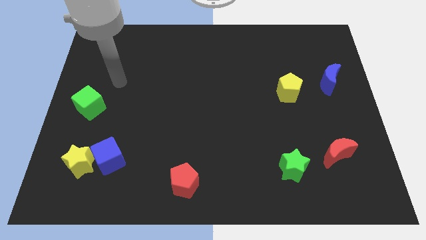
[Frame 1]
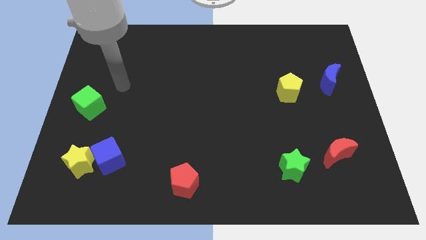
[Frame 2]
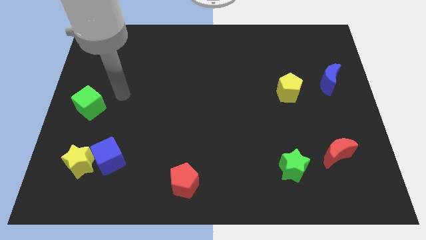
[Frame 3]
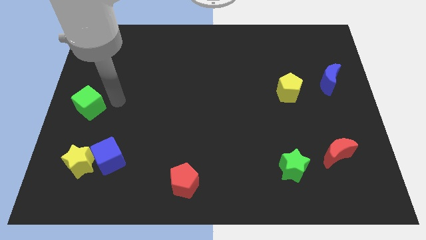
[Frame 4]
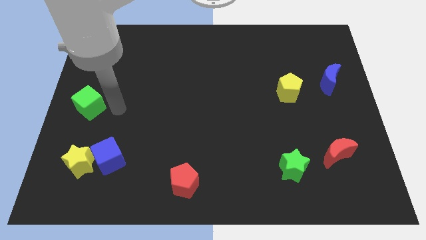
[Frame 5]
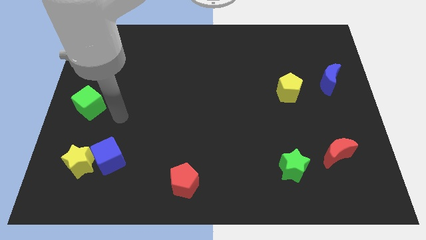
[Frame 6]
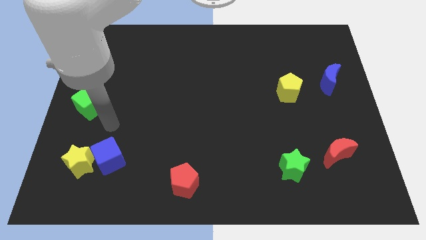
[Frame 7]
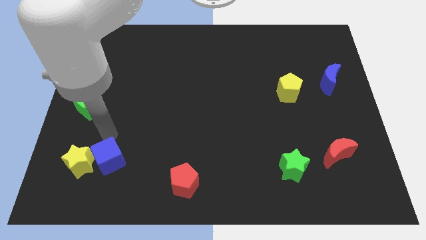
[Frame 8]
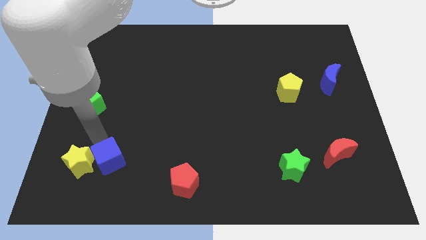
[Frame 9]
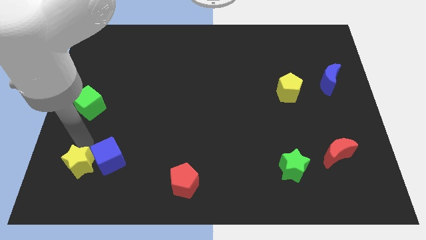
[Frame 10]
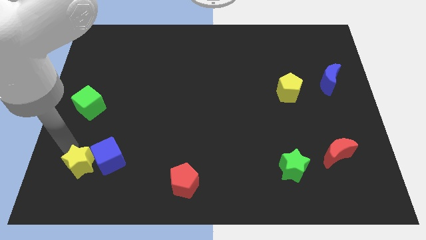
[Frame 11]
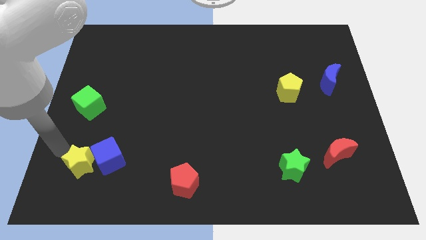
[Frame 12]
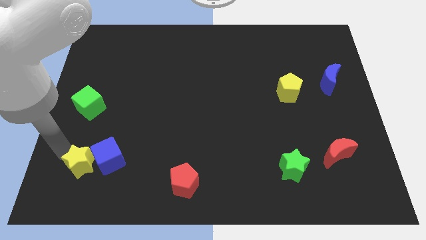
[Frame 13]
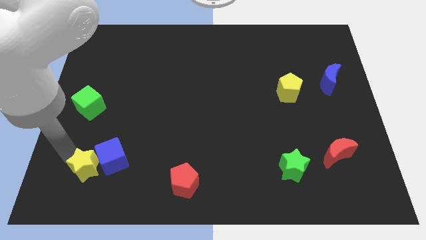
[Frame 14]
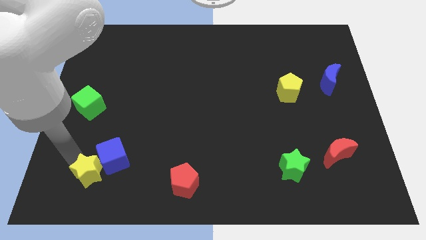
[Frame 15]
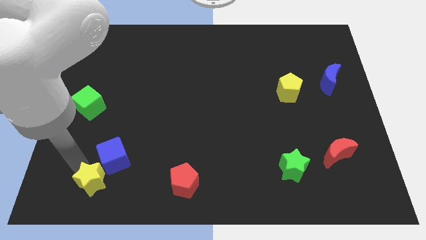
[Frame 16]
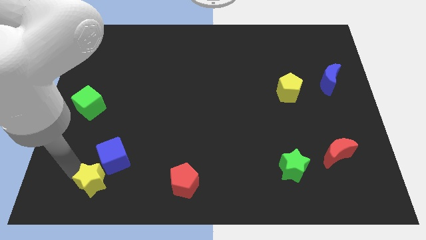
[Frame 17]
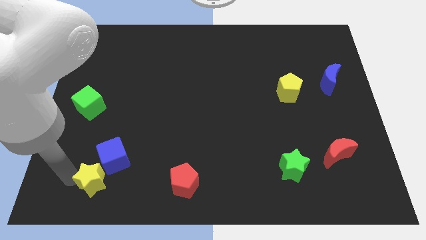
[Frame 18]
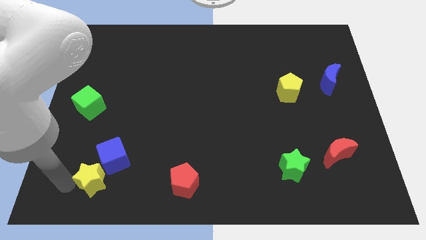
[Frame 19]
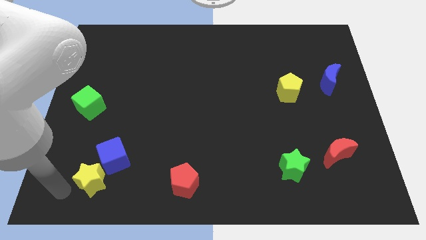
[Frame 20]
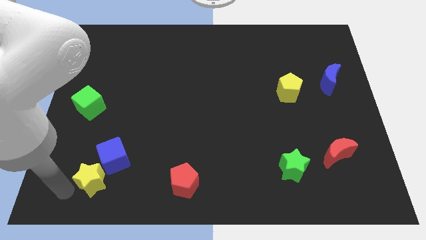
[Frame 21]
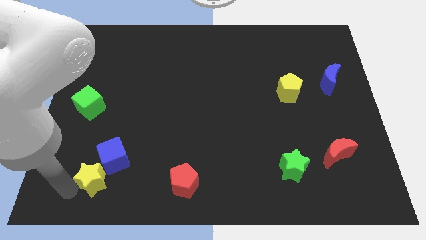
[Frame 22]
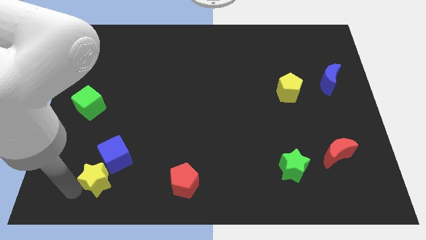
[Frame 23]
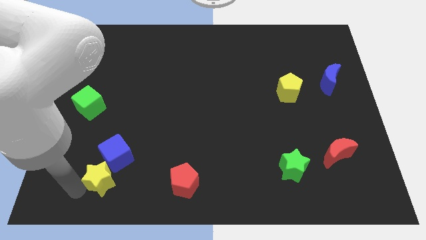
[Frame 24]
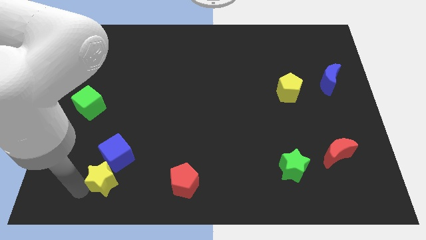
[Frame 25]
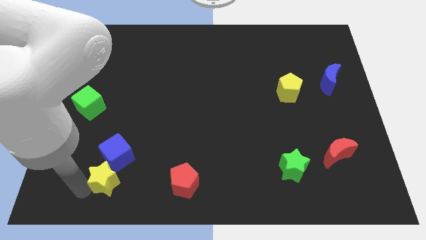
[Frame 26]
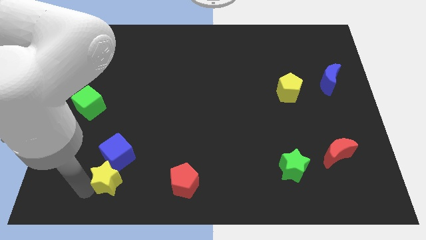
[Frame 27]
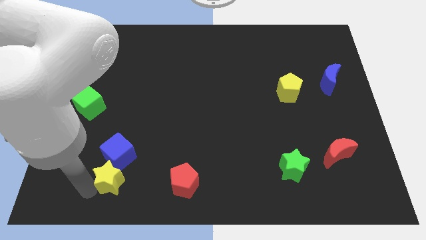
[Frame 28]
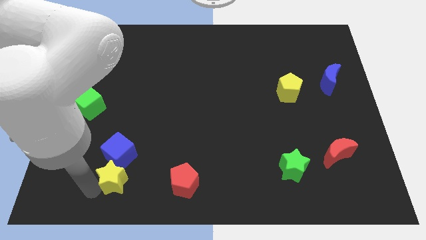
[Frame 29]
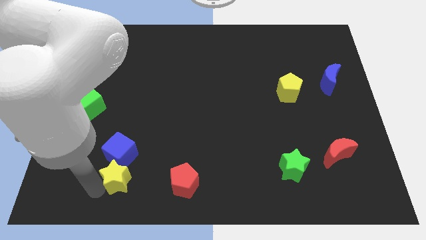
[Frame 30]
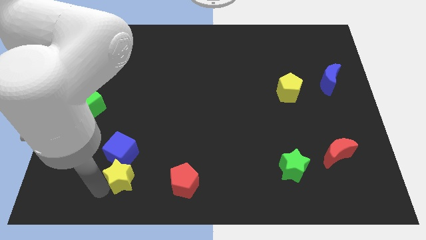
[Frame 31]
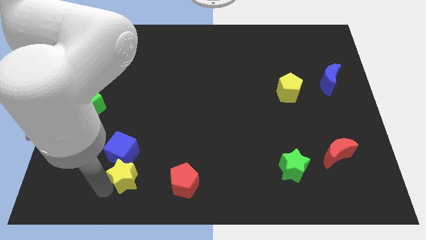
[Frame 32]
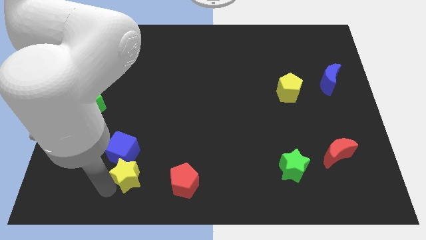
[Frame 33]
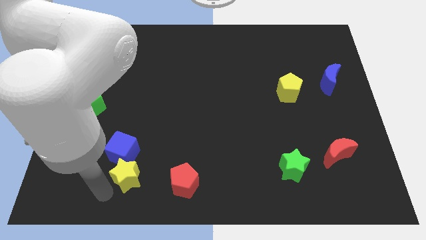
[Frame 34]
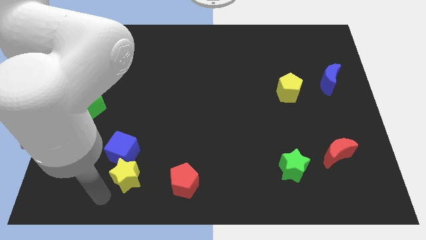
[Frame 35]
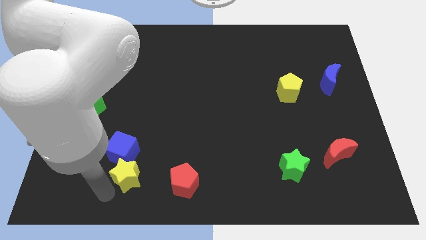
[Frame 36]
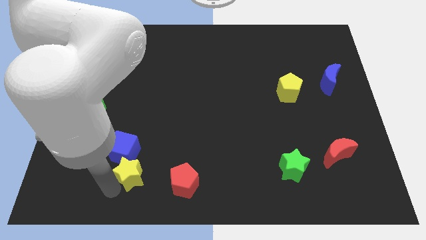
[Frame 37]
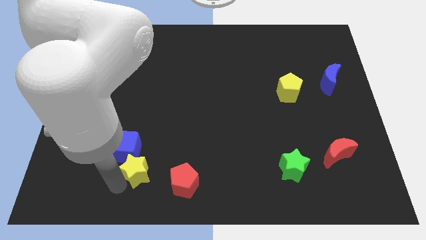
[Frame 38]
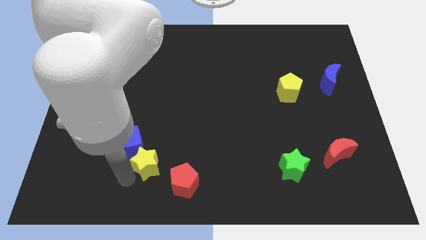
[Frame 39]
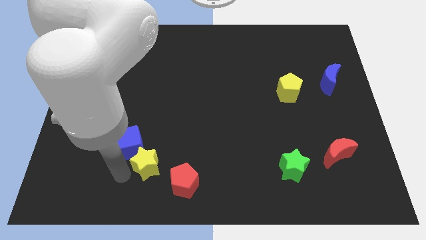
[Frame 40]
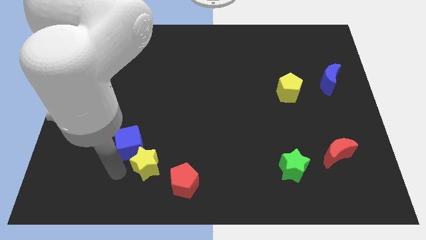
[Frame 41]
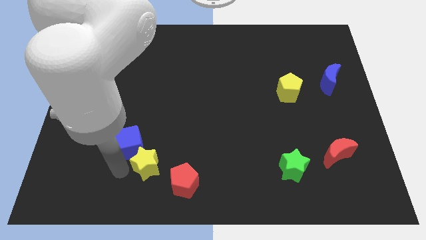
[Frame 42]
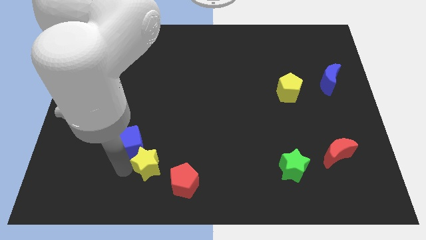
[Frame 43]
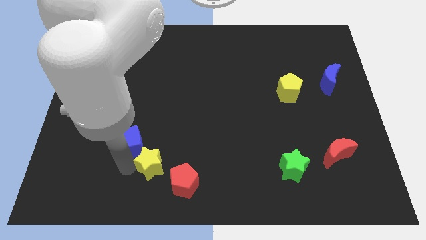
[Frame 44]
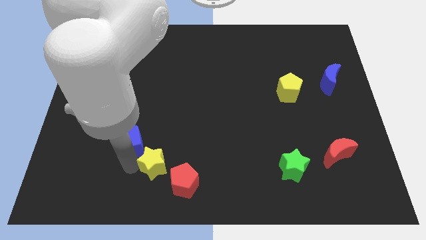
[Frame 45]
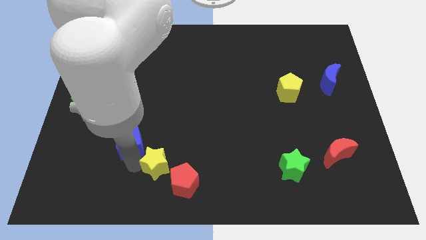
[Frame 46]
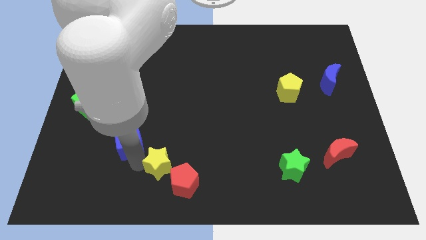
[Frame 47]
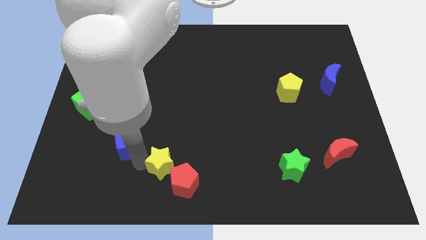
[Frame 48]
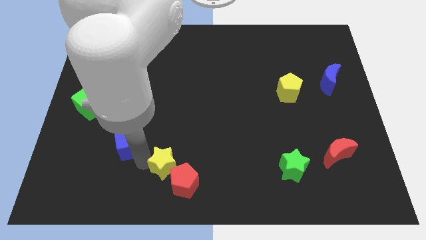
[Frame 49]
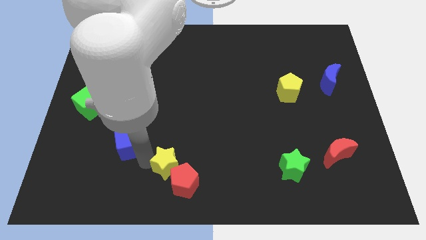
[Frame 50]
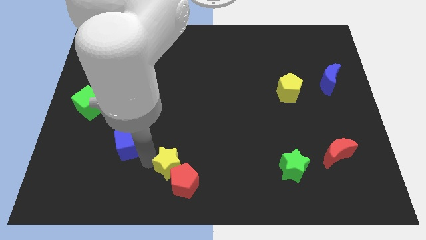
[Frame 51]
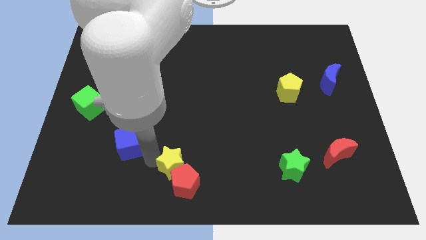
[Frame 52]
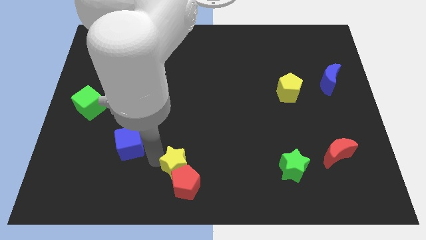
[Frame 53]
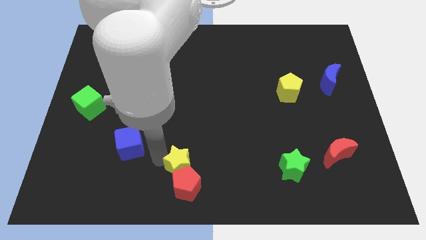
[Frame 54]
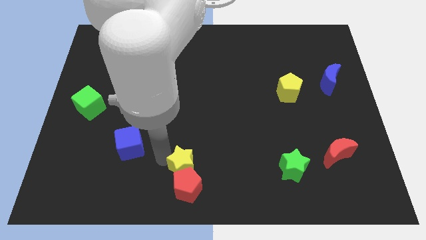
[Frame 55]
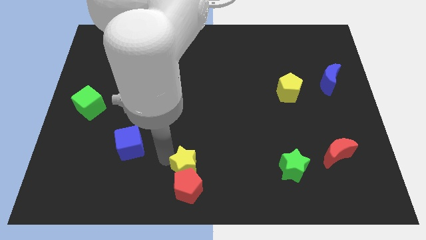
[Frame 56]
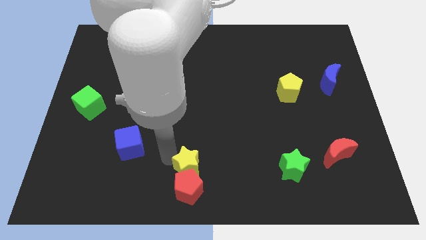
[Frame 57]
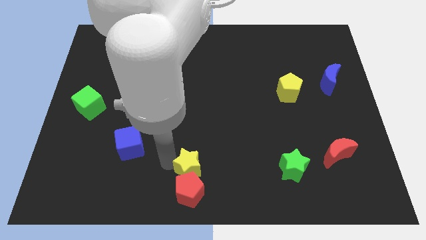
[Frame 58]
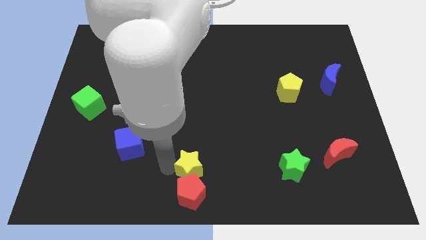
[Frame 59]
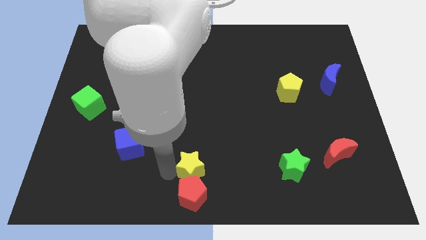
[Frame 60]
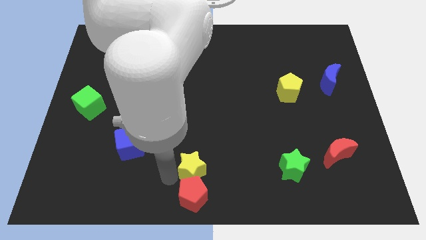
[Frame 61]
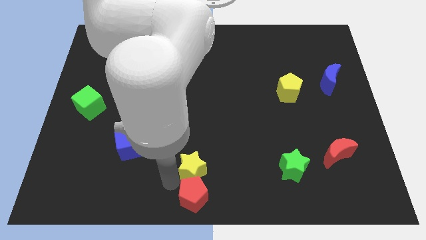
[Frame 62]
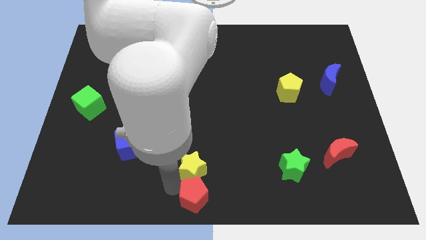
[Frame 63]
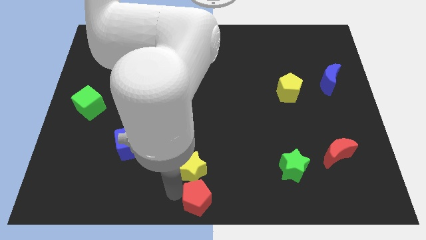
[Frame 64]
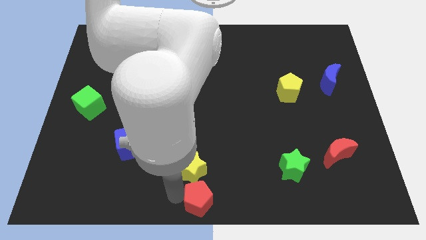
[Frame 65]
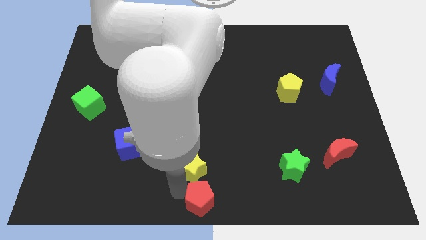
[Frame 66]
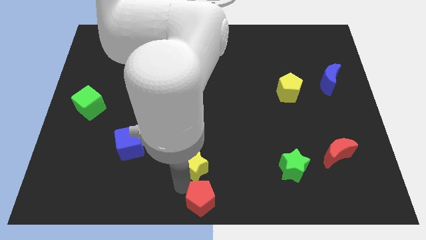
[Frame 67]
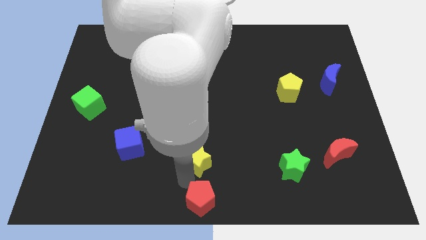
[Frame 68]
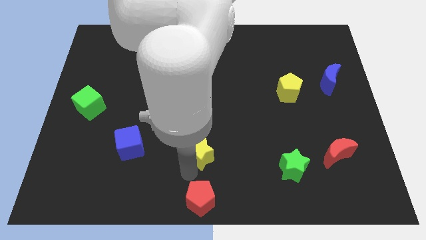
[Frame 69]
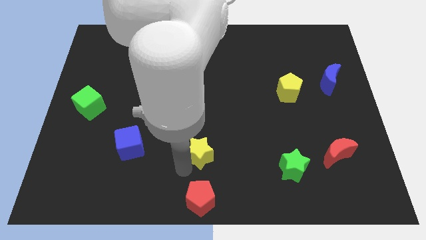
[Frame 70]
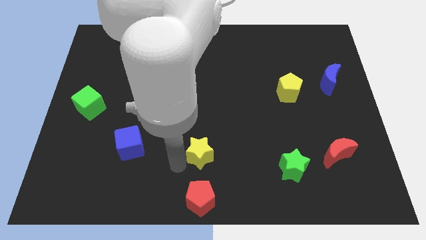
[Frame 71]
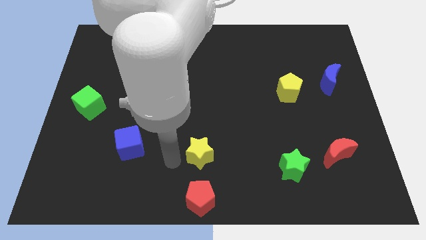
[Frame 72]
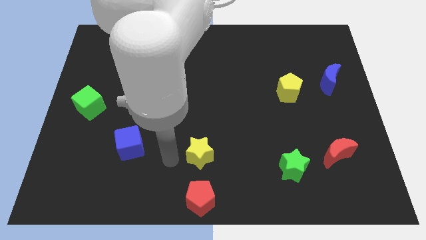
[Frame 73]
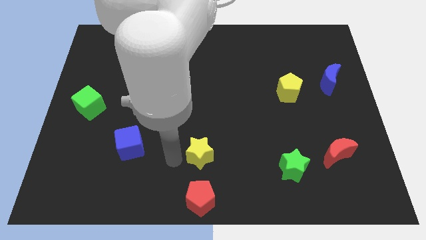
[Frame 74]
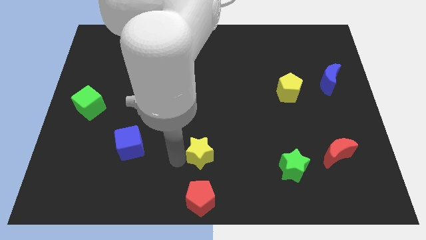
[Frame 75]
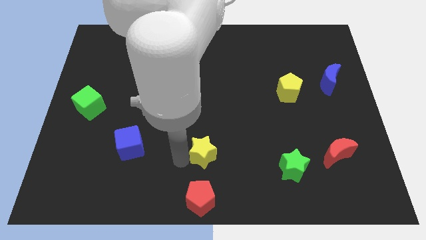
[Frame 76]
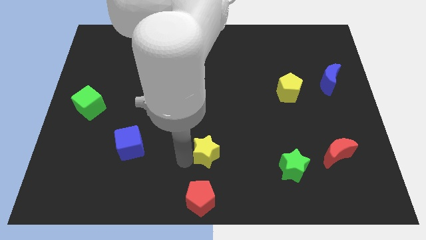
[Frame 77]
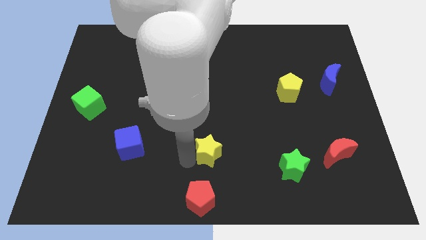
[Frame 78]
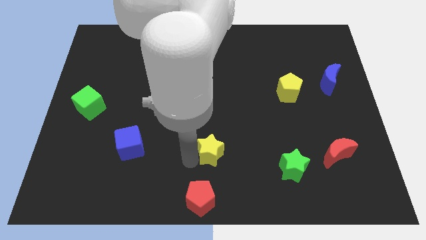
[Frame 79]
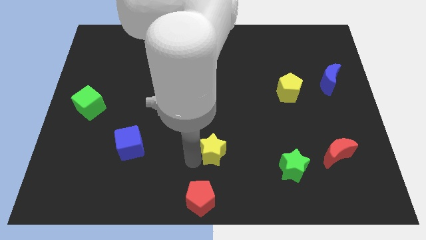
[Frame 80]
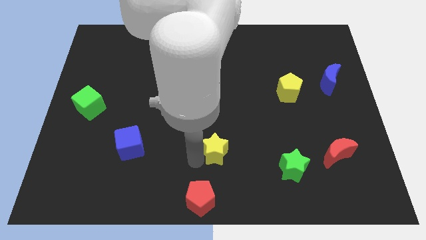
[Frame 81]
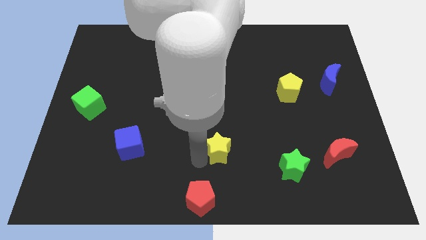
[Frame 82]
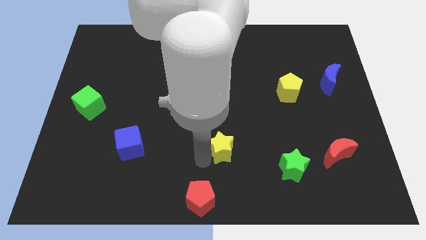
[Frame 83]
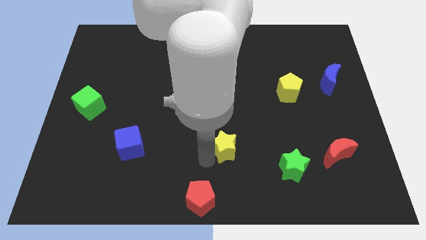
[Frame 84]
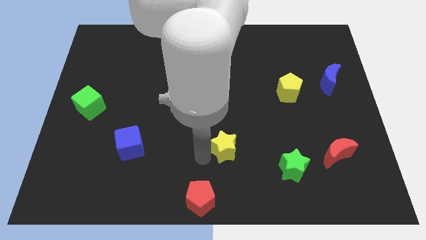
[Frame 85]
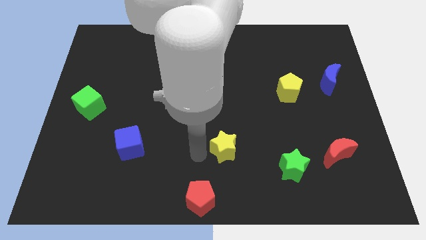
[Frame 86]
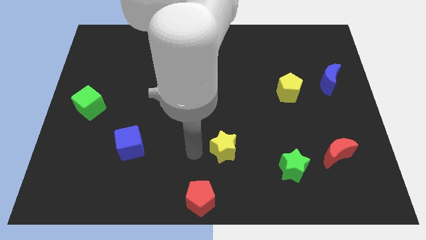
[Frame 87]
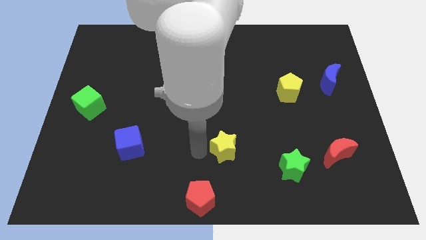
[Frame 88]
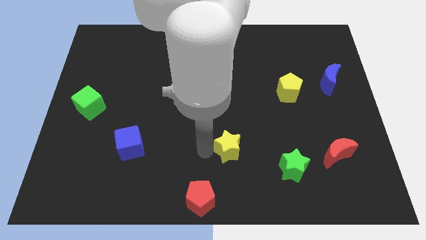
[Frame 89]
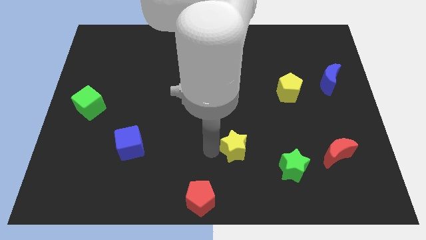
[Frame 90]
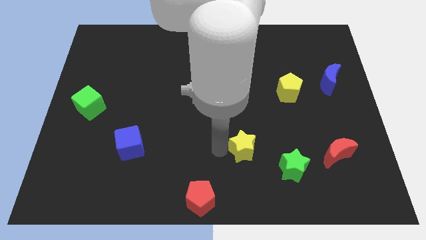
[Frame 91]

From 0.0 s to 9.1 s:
put the yellow star to the top left of the green star
